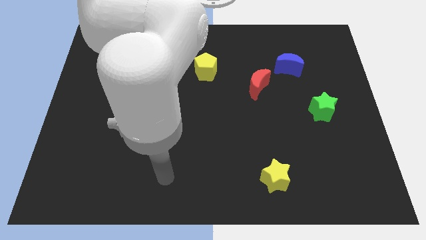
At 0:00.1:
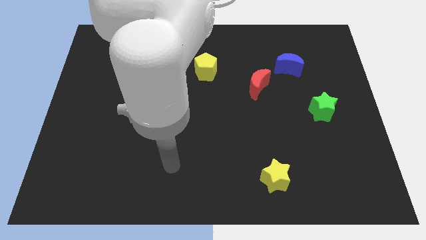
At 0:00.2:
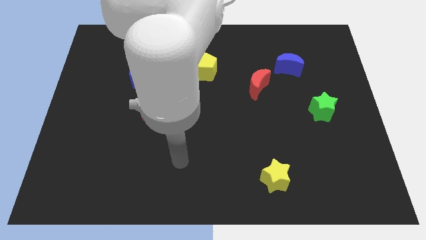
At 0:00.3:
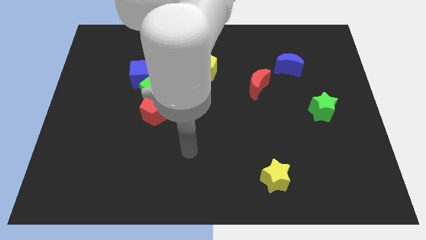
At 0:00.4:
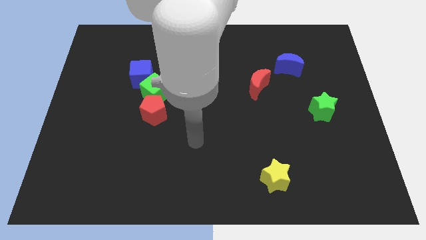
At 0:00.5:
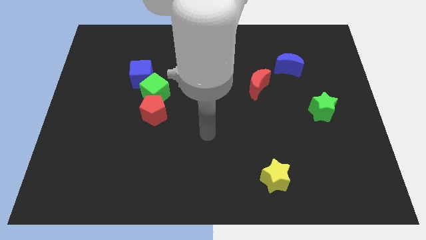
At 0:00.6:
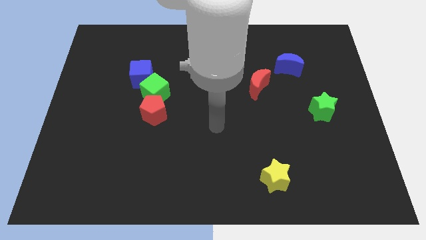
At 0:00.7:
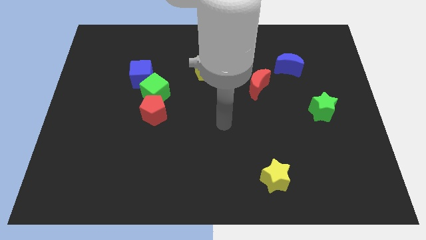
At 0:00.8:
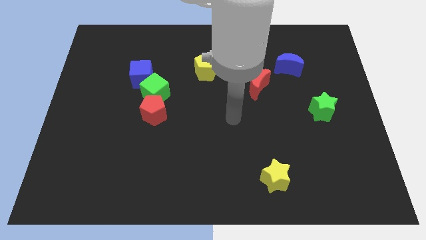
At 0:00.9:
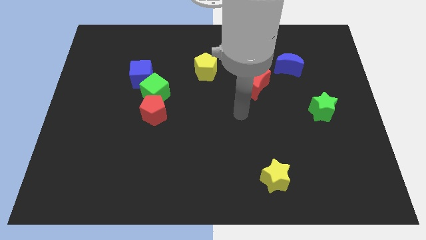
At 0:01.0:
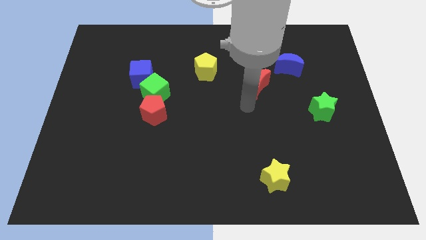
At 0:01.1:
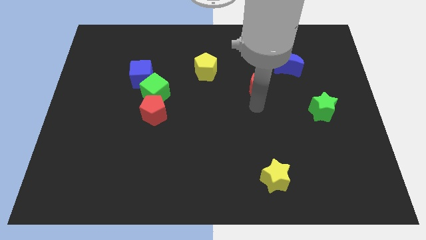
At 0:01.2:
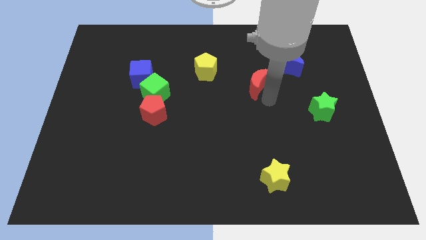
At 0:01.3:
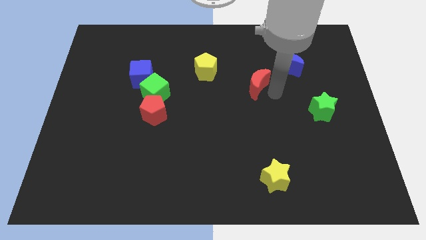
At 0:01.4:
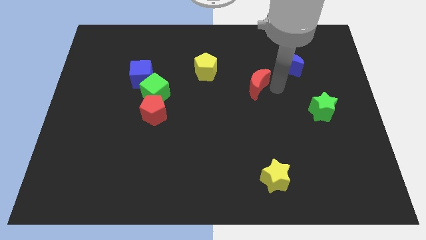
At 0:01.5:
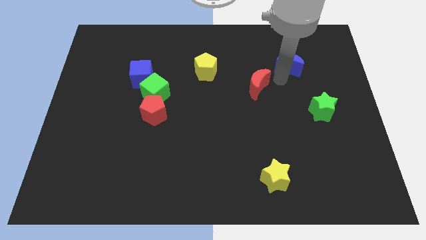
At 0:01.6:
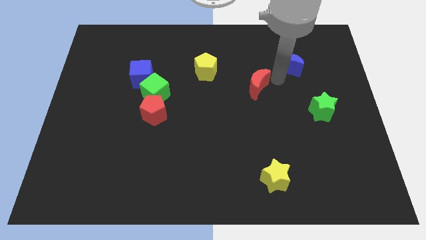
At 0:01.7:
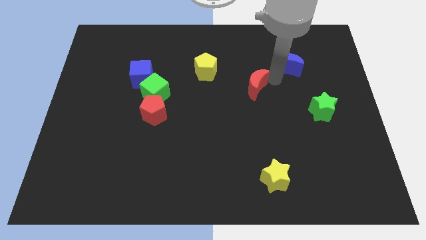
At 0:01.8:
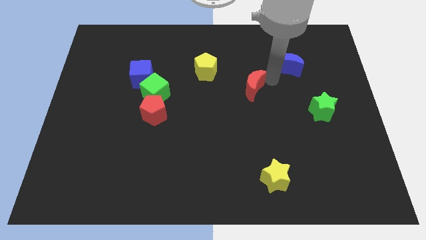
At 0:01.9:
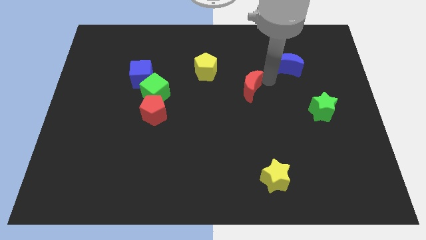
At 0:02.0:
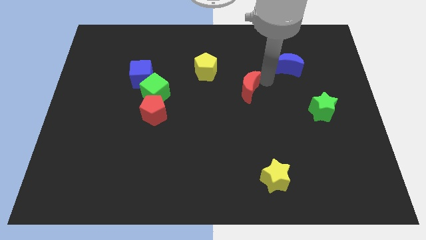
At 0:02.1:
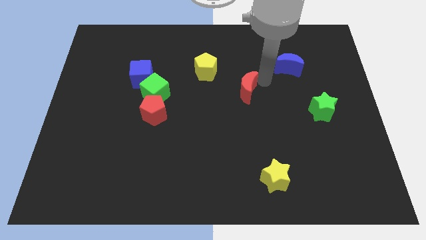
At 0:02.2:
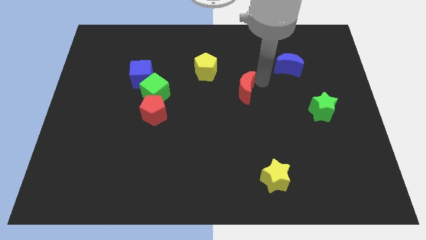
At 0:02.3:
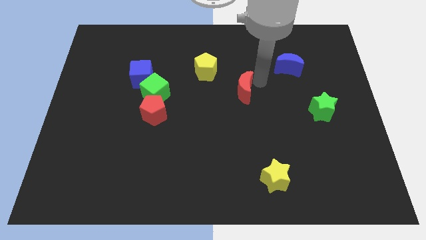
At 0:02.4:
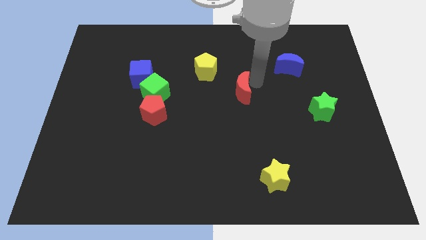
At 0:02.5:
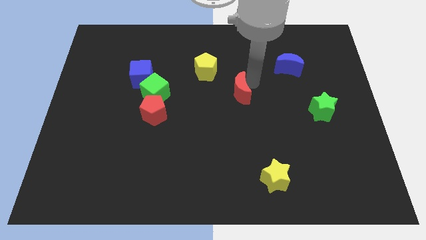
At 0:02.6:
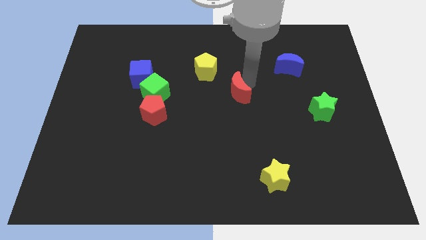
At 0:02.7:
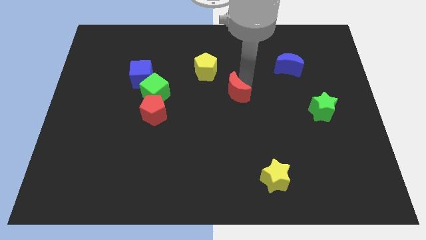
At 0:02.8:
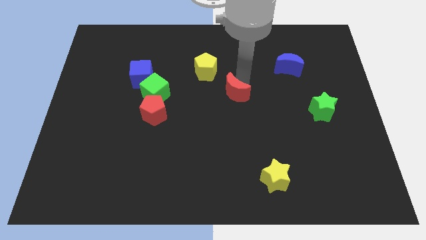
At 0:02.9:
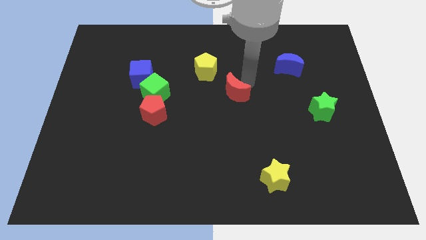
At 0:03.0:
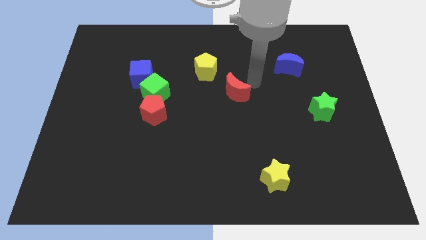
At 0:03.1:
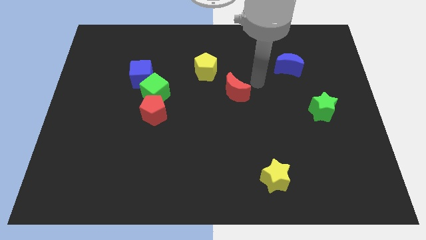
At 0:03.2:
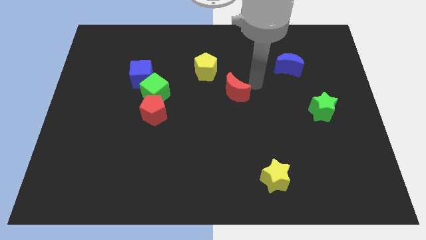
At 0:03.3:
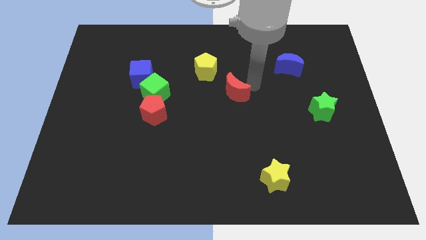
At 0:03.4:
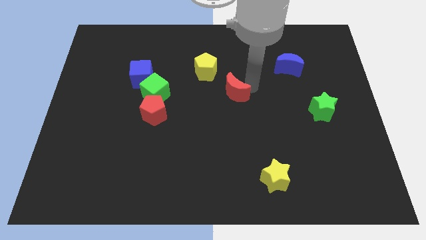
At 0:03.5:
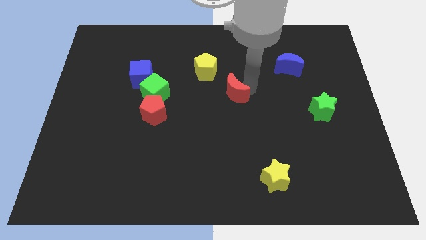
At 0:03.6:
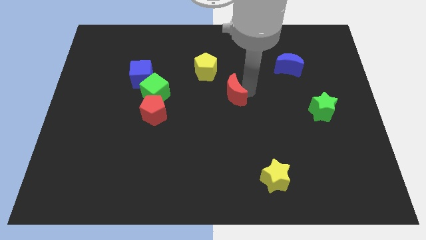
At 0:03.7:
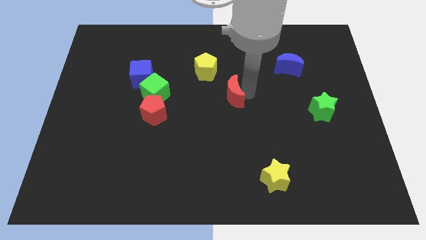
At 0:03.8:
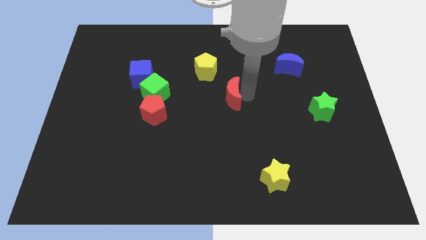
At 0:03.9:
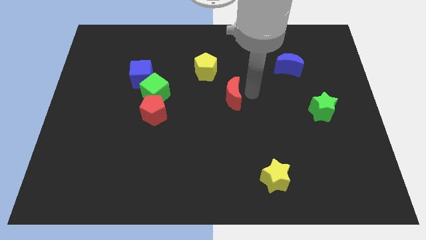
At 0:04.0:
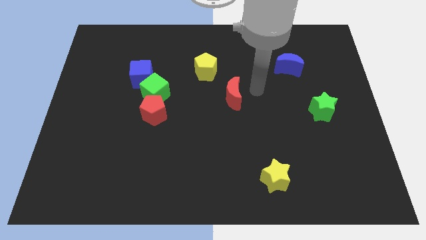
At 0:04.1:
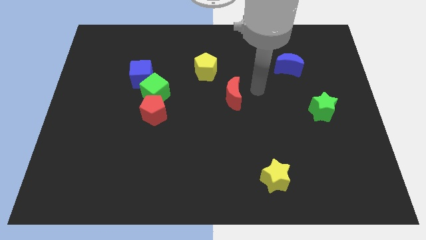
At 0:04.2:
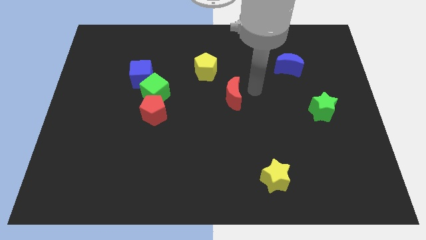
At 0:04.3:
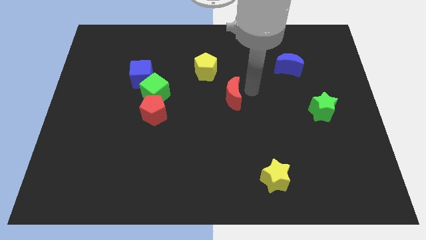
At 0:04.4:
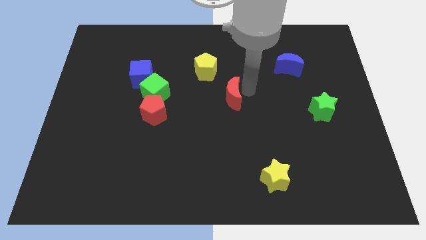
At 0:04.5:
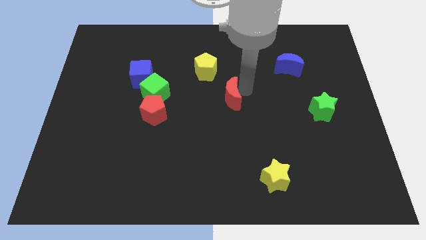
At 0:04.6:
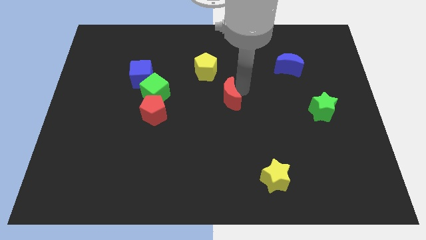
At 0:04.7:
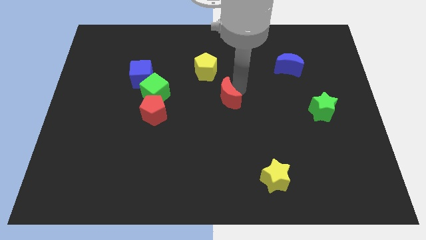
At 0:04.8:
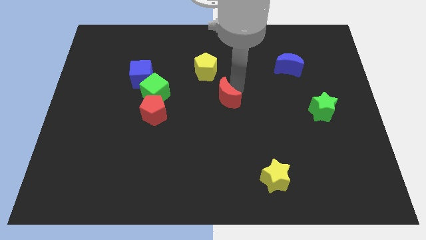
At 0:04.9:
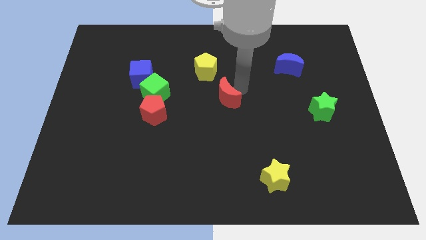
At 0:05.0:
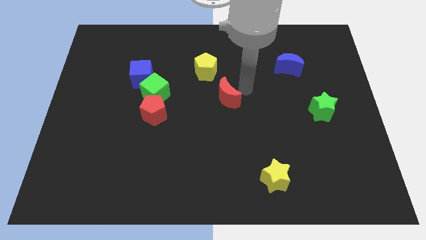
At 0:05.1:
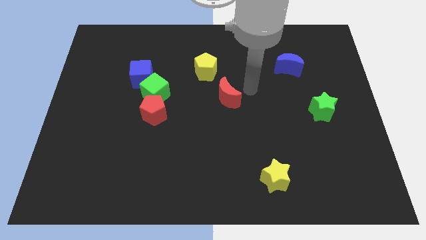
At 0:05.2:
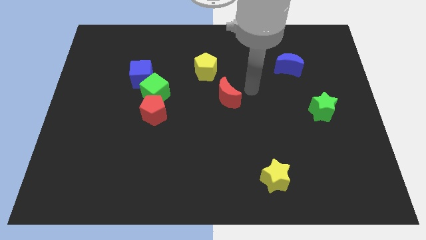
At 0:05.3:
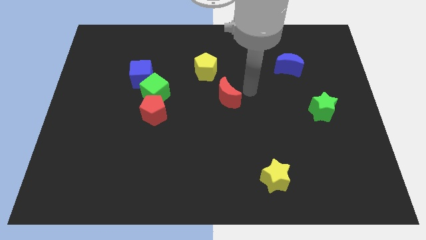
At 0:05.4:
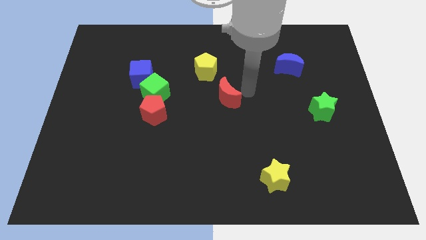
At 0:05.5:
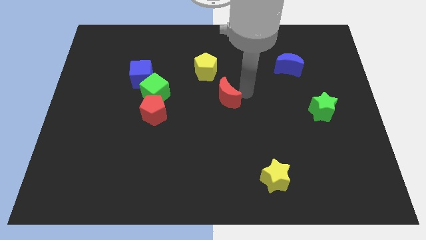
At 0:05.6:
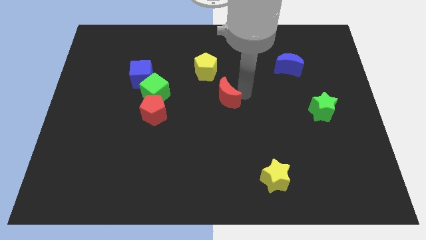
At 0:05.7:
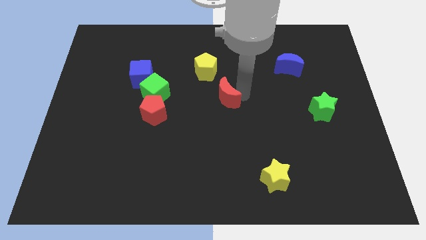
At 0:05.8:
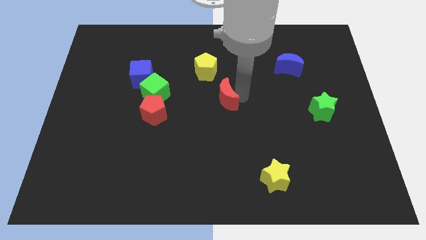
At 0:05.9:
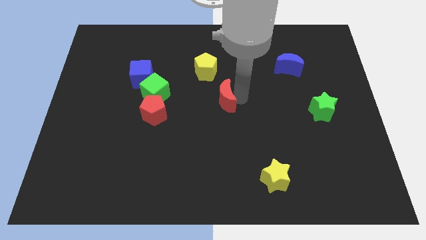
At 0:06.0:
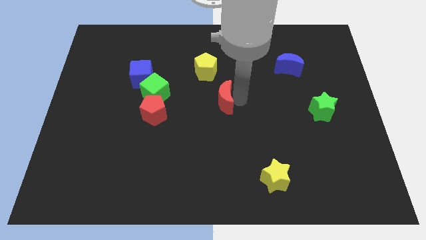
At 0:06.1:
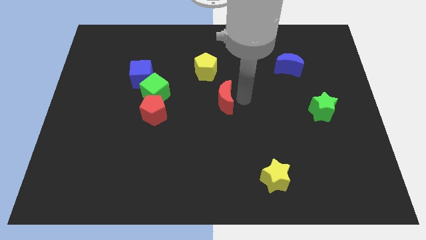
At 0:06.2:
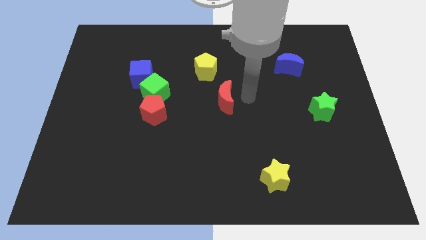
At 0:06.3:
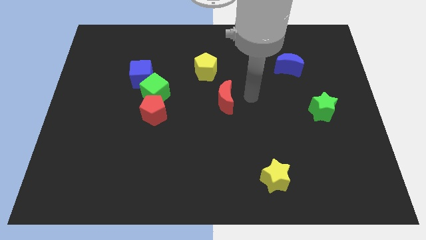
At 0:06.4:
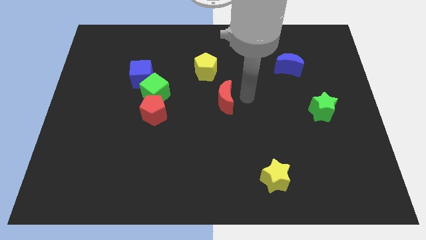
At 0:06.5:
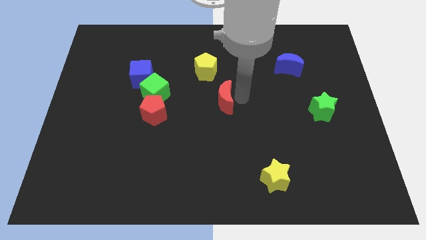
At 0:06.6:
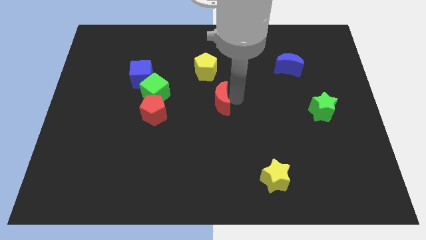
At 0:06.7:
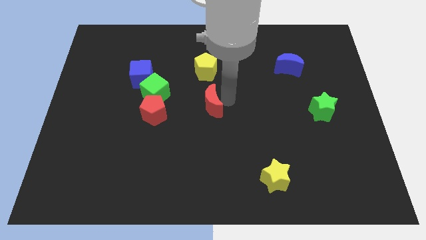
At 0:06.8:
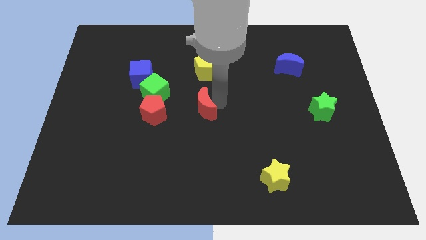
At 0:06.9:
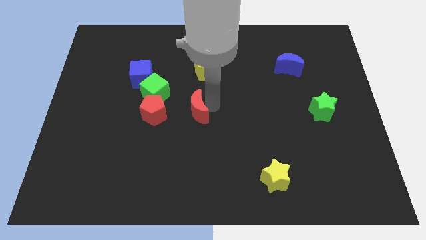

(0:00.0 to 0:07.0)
move the red moon to the bottom right side of the green cube
